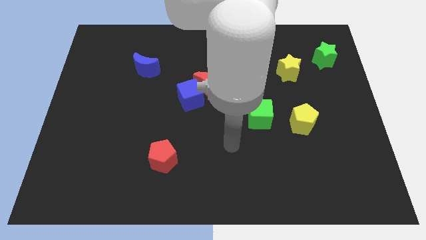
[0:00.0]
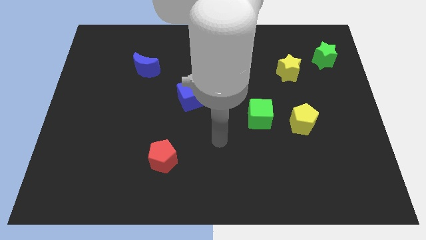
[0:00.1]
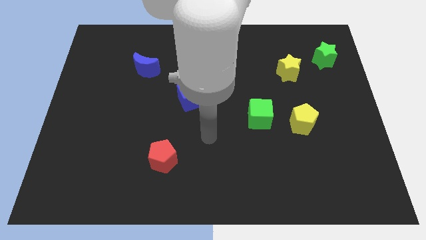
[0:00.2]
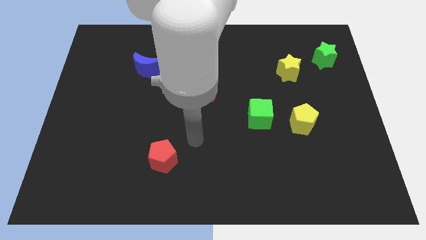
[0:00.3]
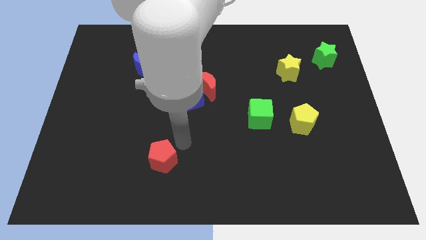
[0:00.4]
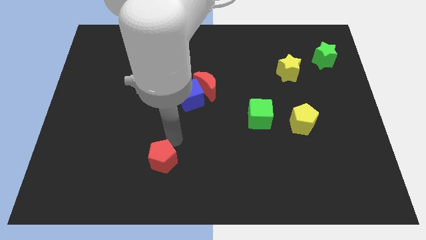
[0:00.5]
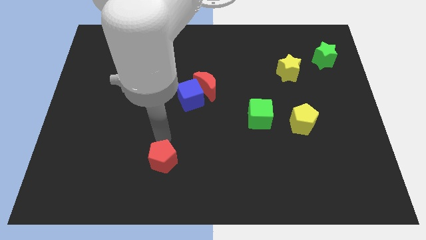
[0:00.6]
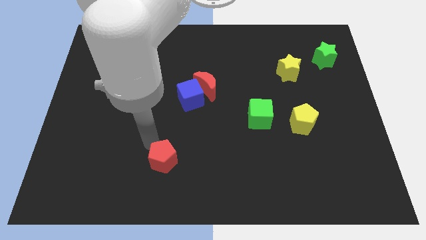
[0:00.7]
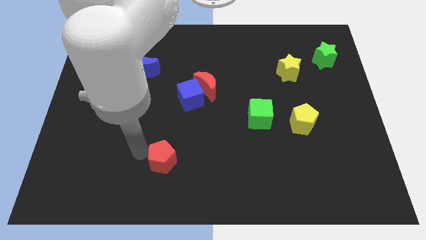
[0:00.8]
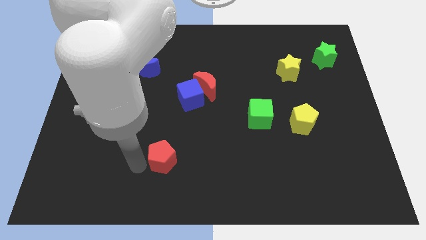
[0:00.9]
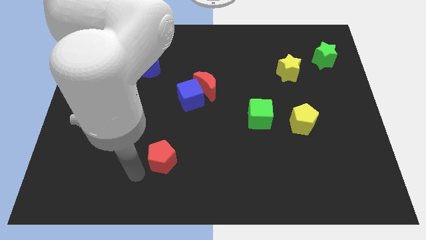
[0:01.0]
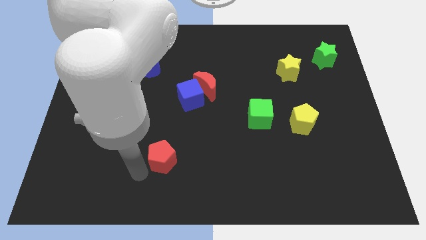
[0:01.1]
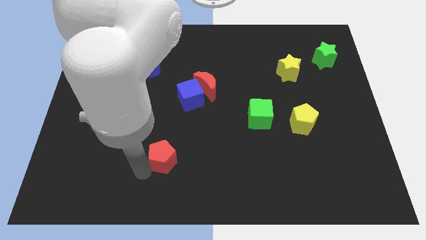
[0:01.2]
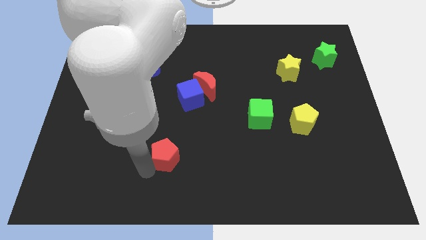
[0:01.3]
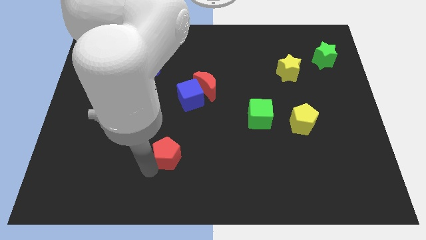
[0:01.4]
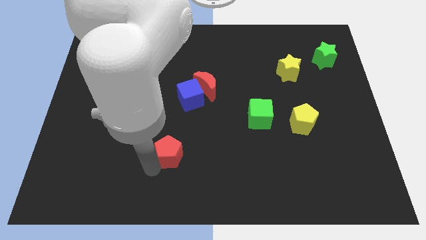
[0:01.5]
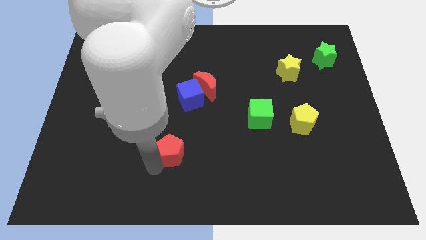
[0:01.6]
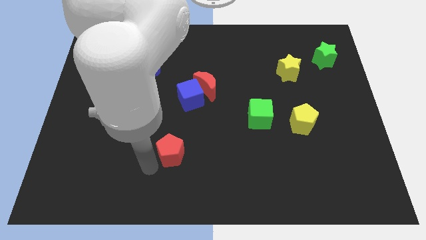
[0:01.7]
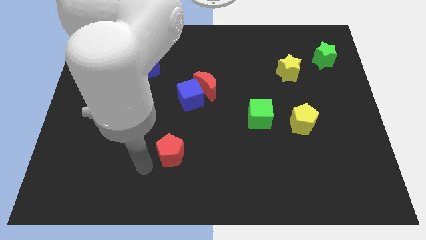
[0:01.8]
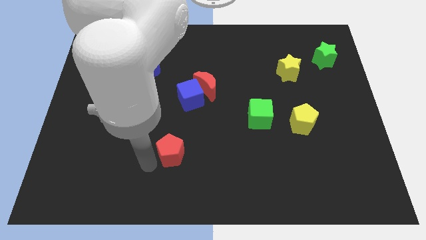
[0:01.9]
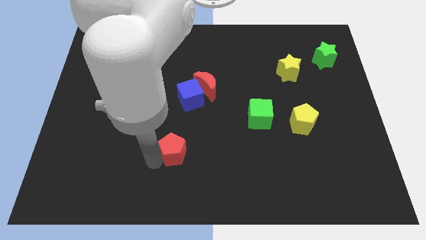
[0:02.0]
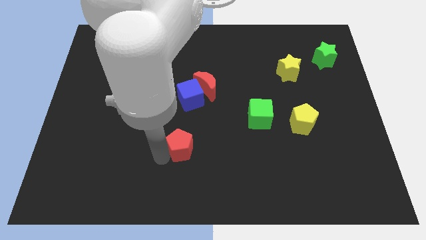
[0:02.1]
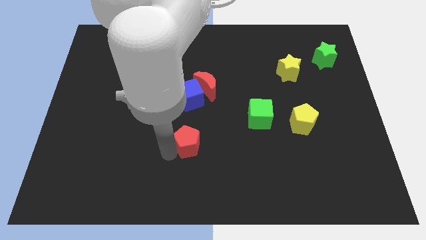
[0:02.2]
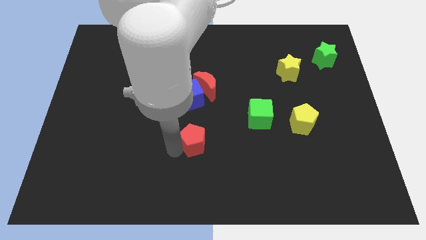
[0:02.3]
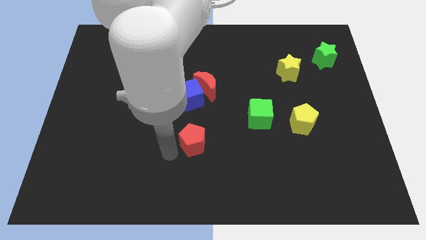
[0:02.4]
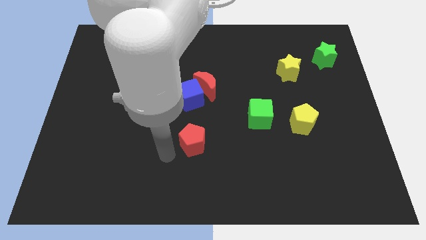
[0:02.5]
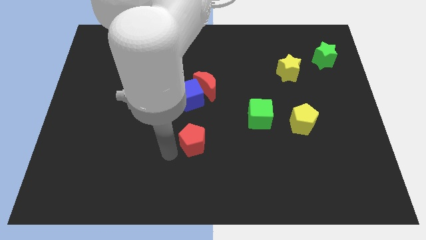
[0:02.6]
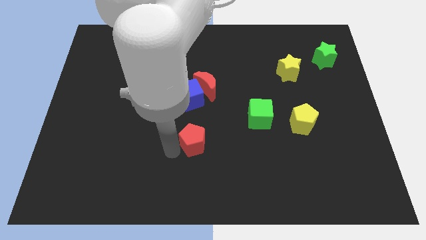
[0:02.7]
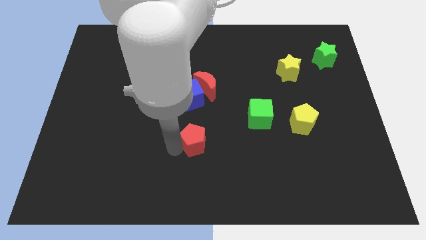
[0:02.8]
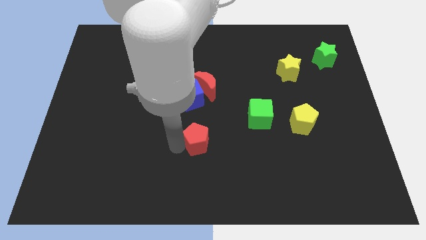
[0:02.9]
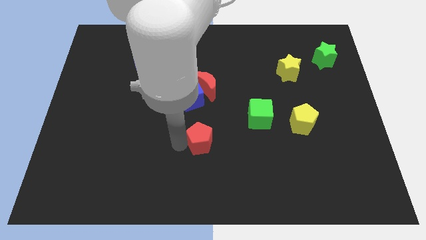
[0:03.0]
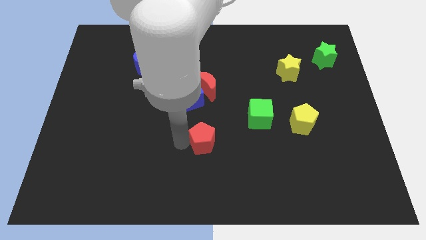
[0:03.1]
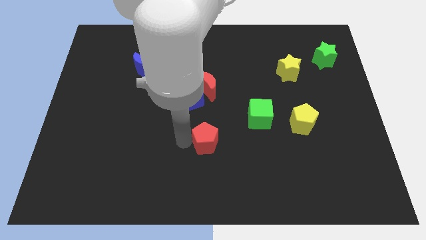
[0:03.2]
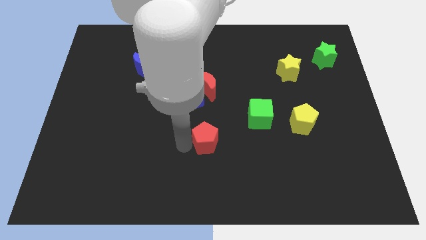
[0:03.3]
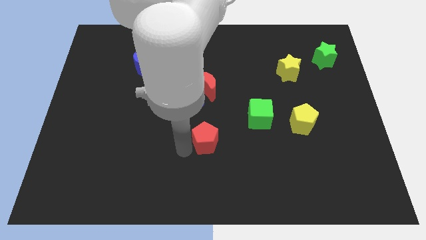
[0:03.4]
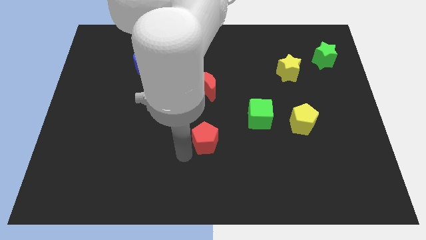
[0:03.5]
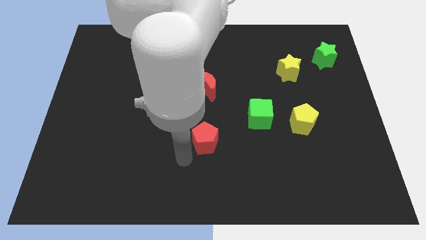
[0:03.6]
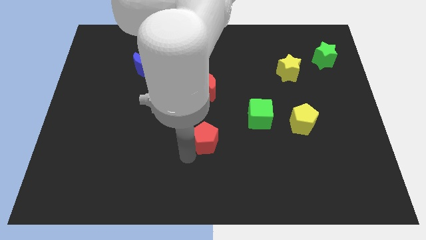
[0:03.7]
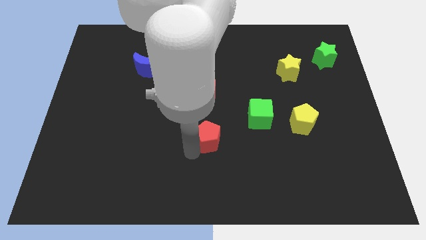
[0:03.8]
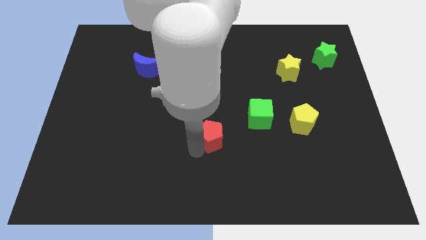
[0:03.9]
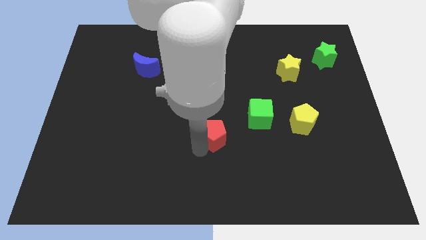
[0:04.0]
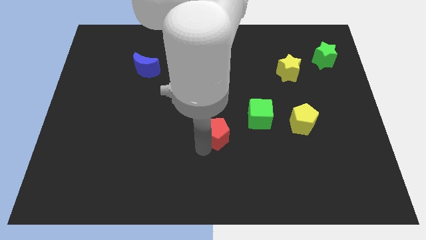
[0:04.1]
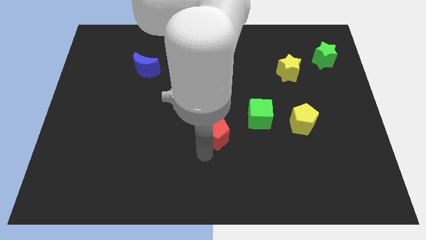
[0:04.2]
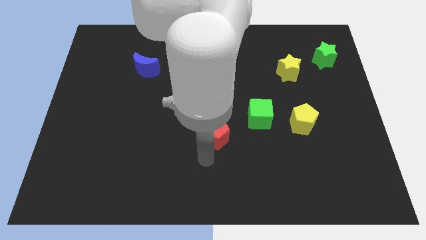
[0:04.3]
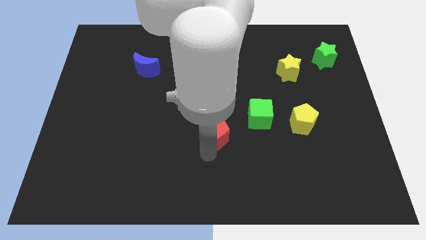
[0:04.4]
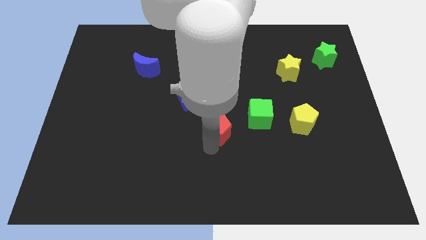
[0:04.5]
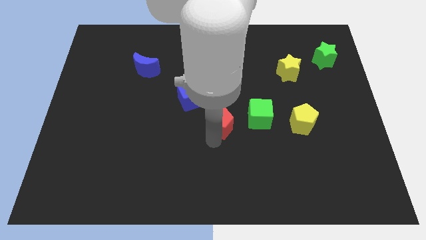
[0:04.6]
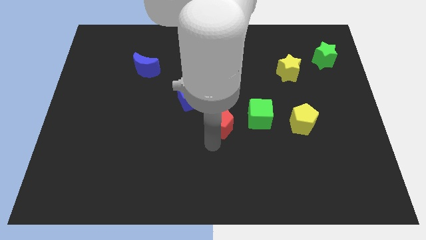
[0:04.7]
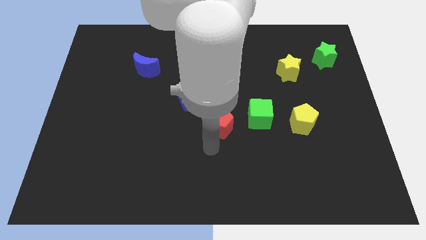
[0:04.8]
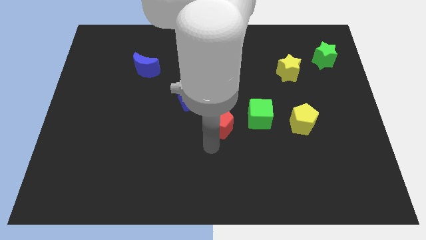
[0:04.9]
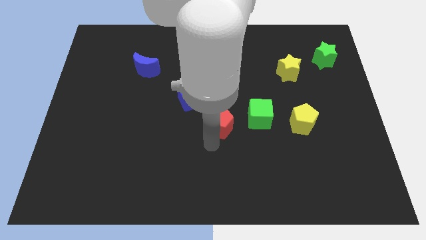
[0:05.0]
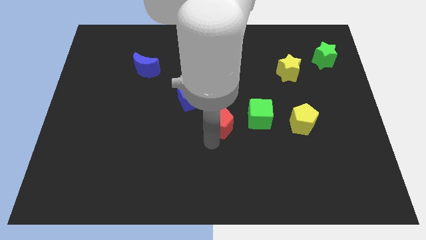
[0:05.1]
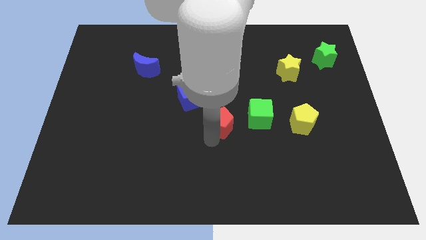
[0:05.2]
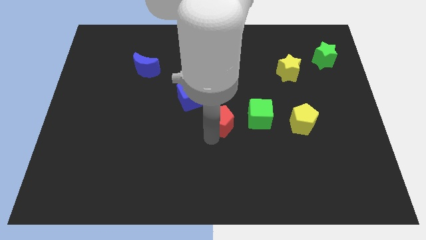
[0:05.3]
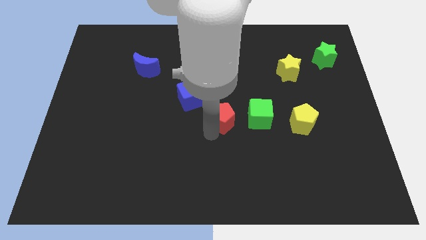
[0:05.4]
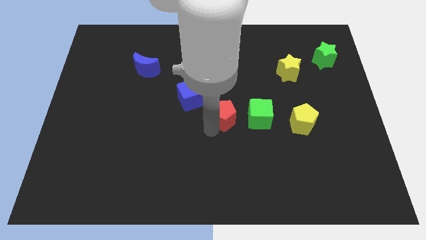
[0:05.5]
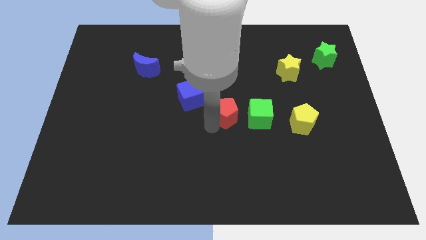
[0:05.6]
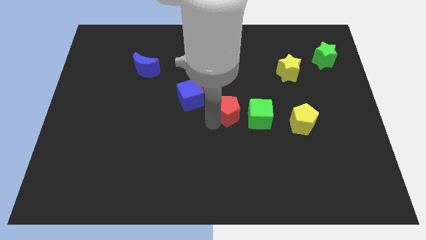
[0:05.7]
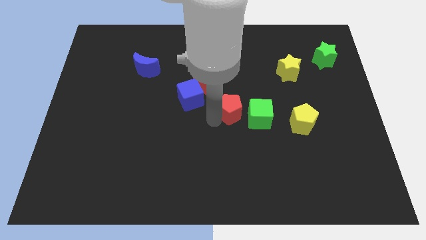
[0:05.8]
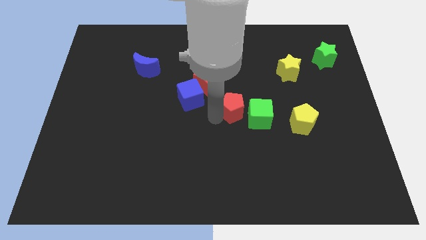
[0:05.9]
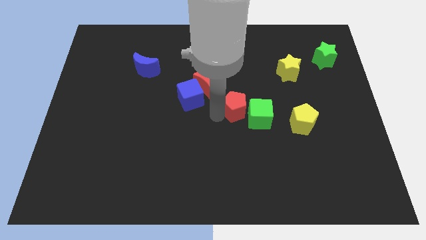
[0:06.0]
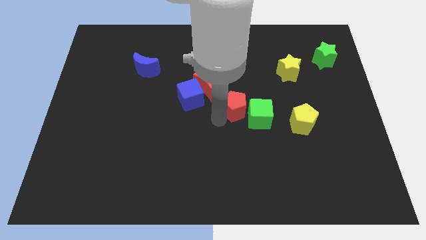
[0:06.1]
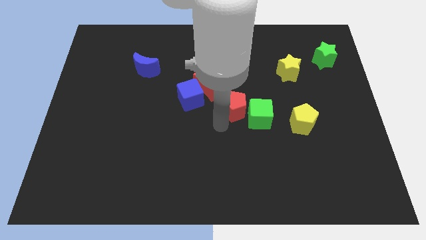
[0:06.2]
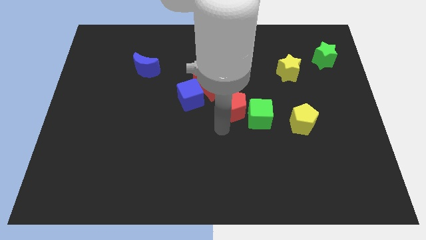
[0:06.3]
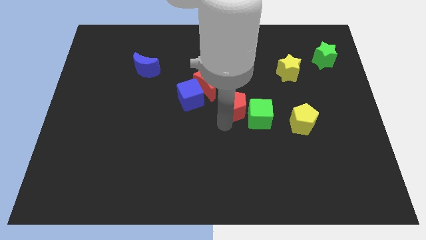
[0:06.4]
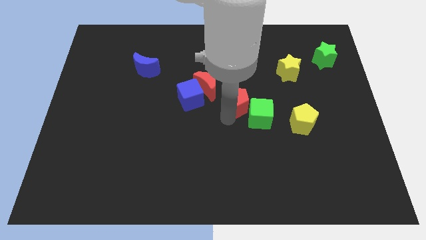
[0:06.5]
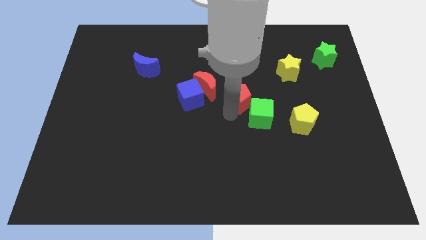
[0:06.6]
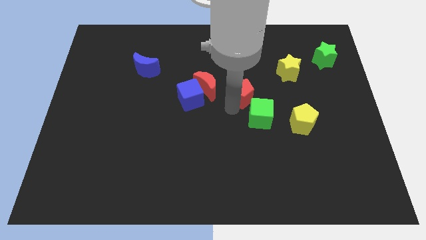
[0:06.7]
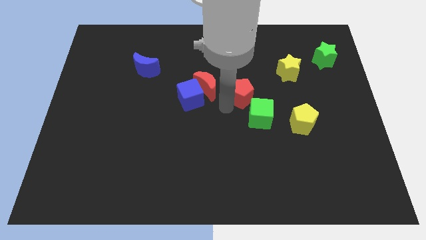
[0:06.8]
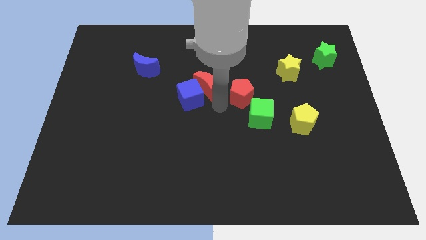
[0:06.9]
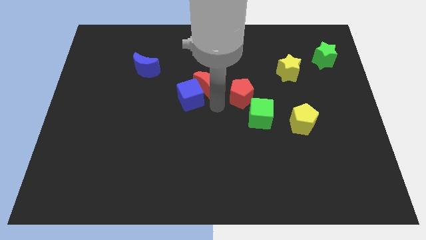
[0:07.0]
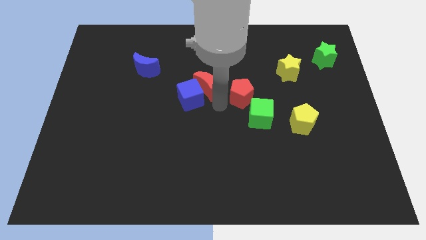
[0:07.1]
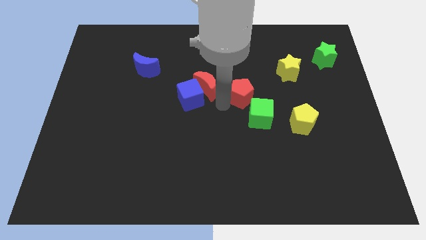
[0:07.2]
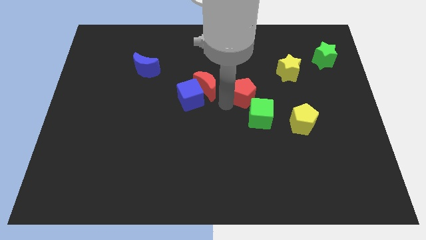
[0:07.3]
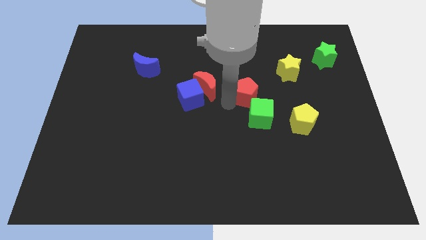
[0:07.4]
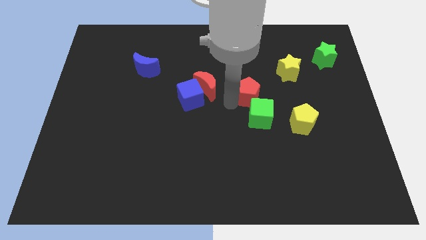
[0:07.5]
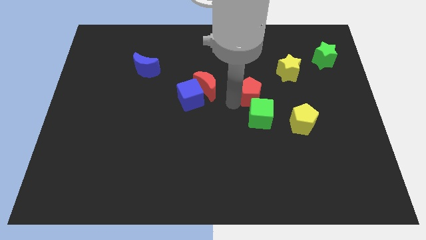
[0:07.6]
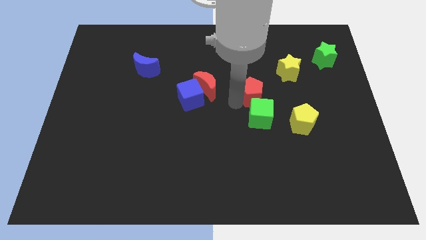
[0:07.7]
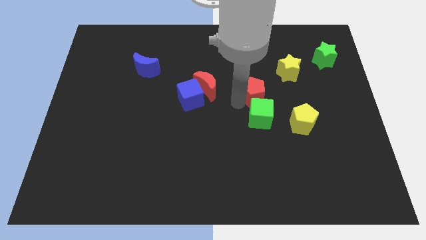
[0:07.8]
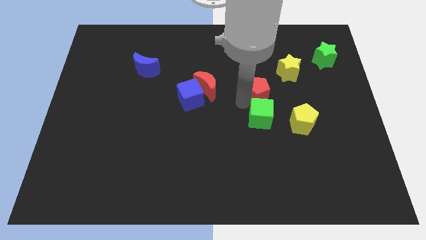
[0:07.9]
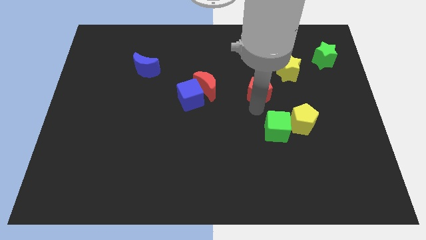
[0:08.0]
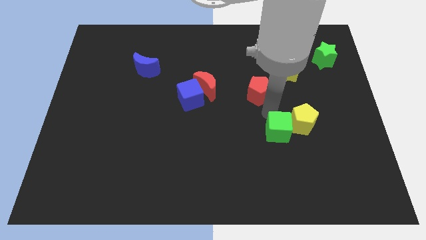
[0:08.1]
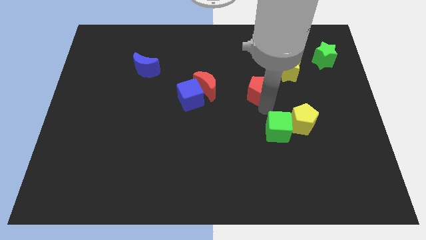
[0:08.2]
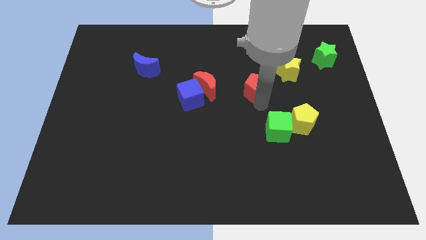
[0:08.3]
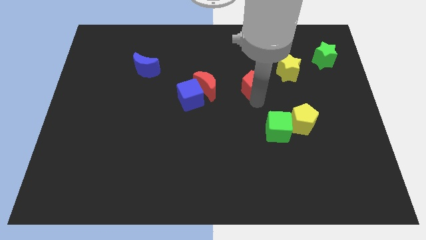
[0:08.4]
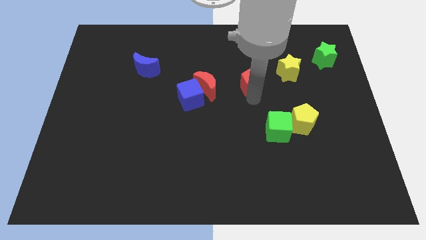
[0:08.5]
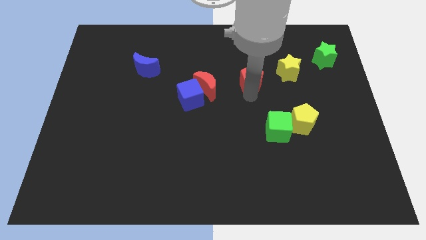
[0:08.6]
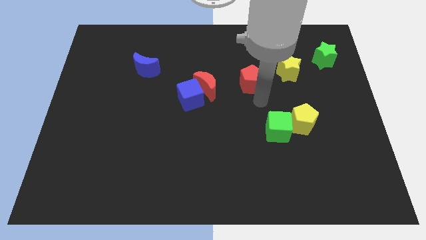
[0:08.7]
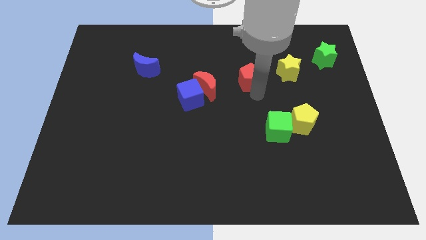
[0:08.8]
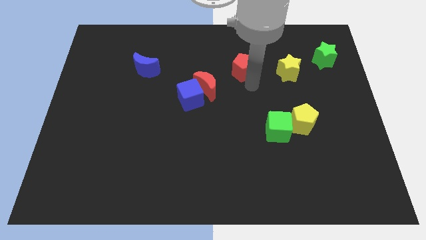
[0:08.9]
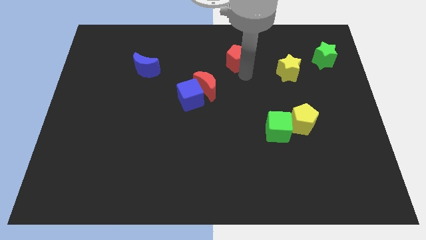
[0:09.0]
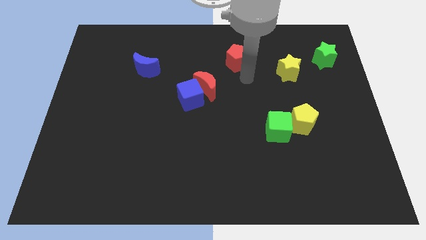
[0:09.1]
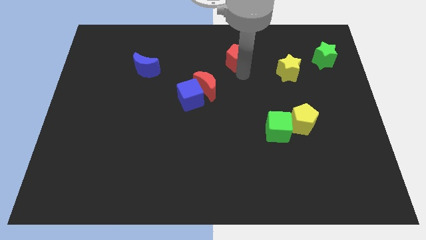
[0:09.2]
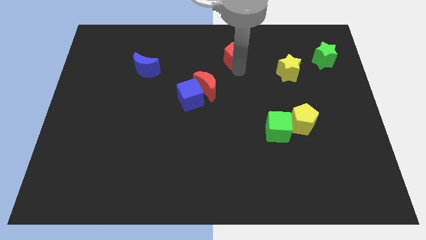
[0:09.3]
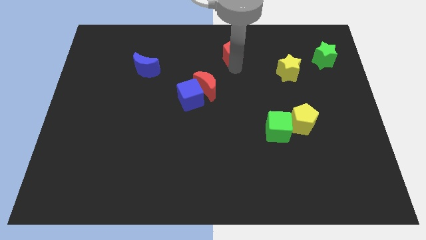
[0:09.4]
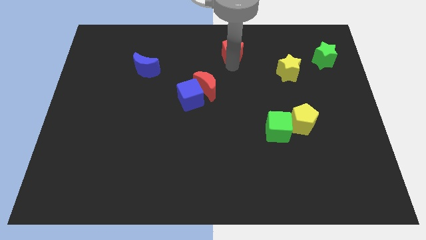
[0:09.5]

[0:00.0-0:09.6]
push the red pentagon to the towards your base
